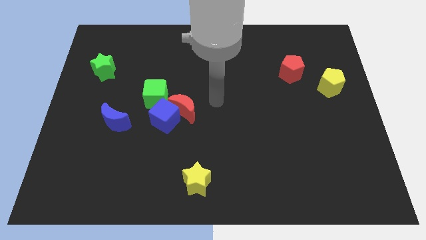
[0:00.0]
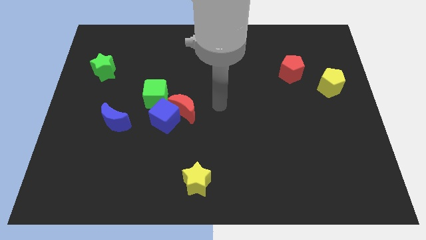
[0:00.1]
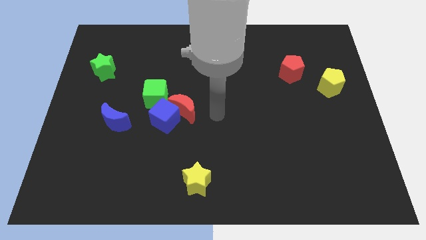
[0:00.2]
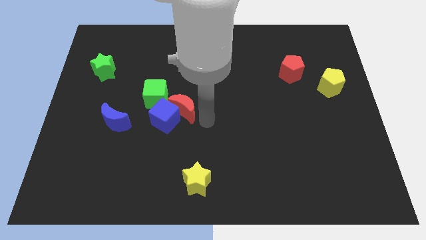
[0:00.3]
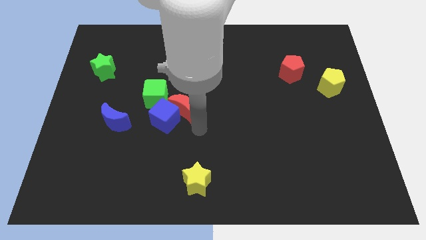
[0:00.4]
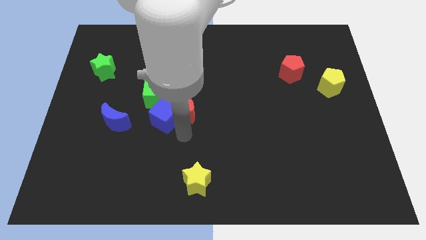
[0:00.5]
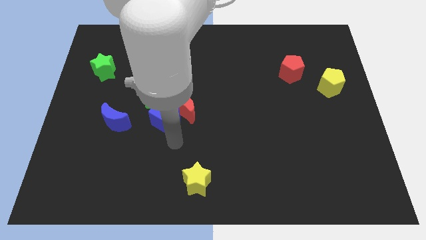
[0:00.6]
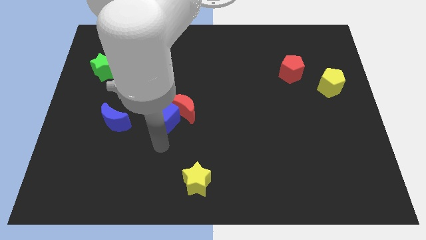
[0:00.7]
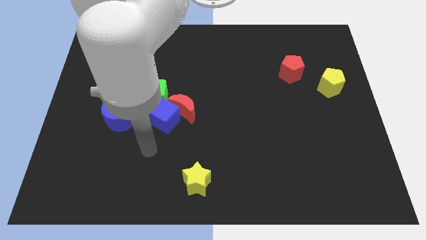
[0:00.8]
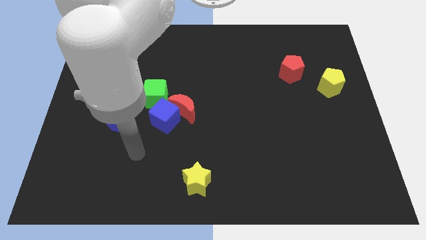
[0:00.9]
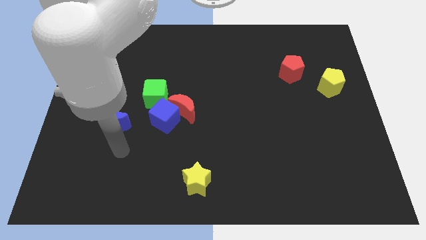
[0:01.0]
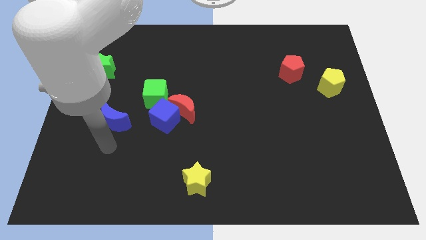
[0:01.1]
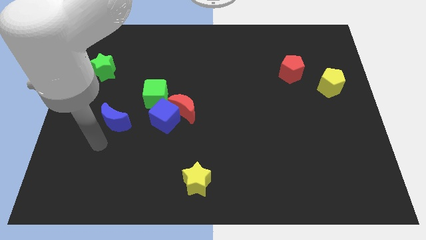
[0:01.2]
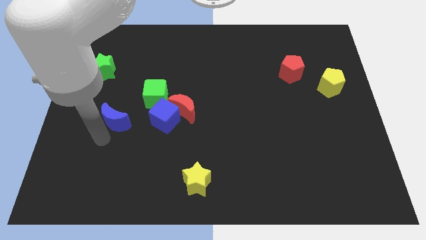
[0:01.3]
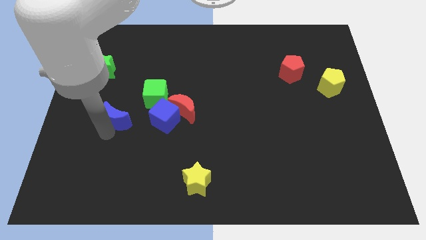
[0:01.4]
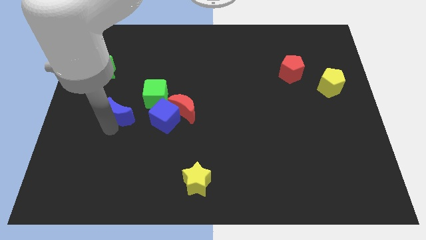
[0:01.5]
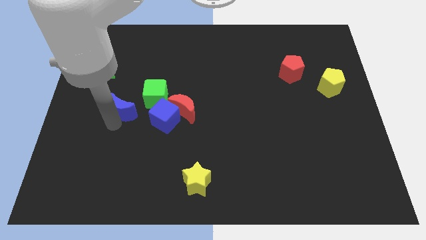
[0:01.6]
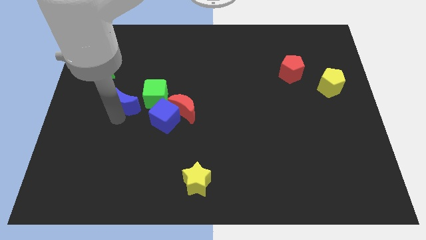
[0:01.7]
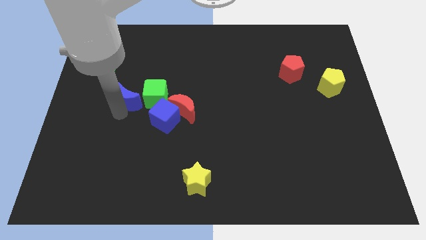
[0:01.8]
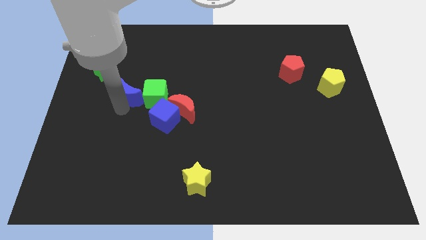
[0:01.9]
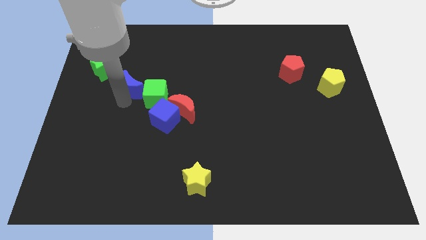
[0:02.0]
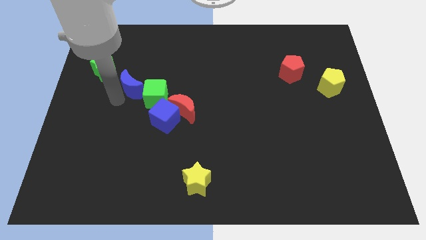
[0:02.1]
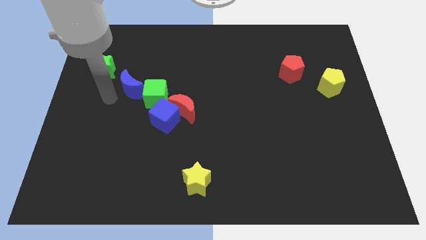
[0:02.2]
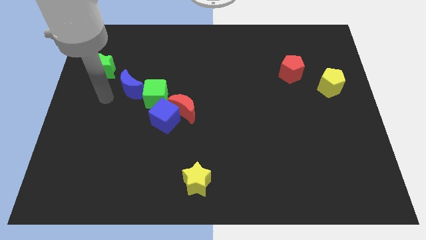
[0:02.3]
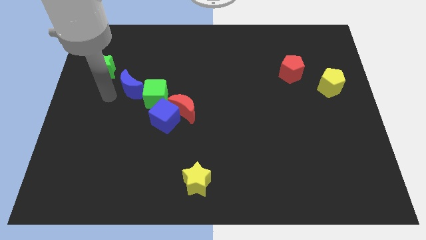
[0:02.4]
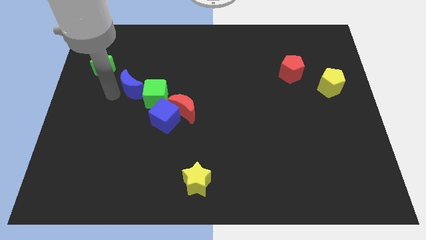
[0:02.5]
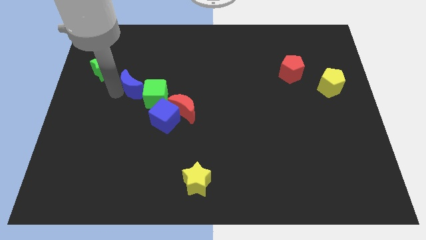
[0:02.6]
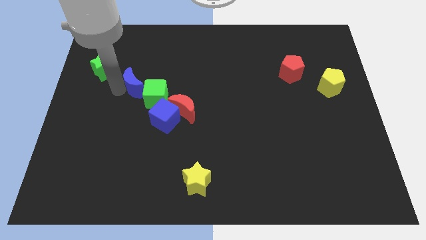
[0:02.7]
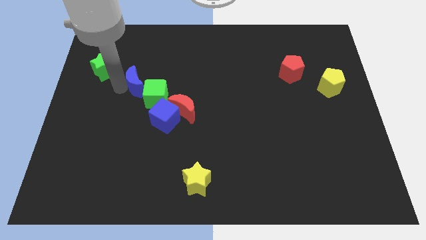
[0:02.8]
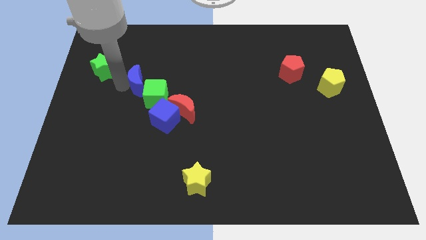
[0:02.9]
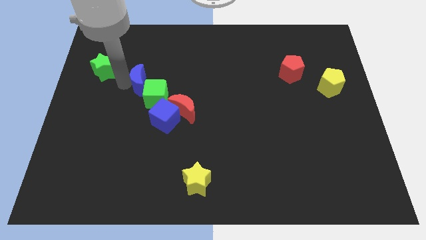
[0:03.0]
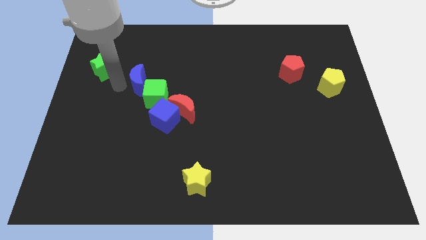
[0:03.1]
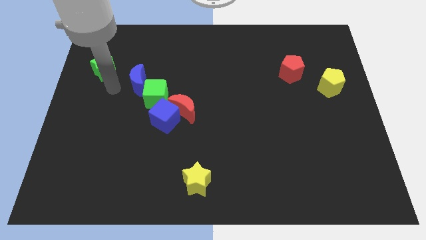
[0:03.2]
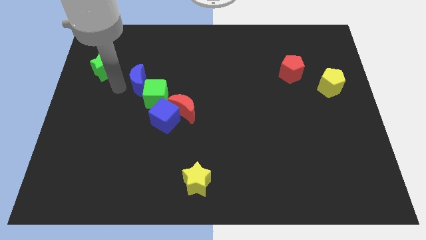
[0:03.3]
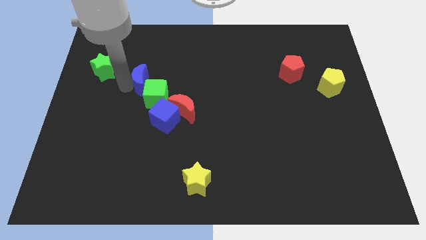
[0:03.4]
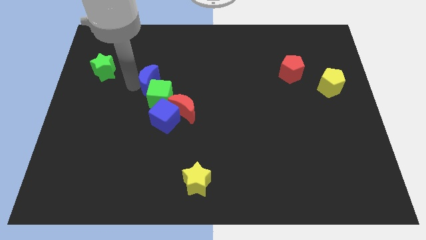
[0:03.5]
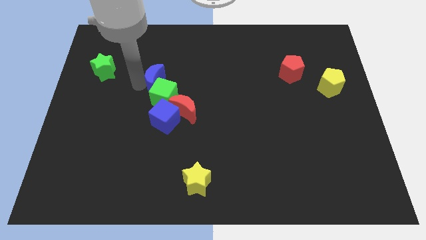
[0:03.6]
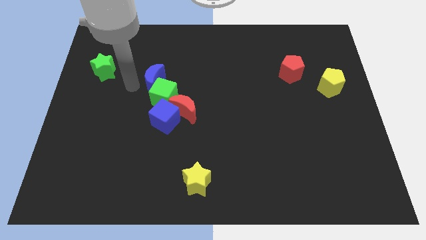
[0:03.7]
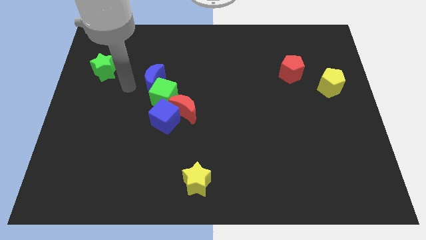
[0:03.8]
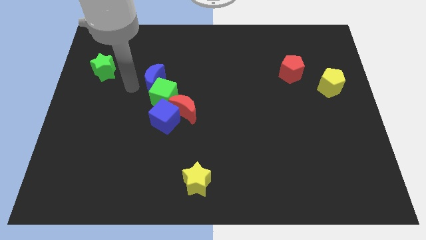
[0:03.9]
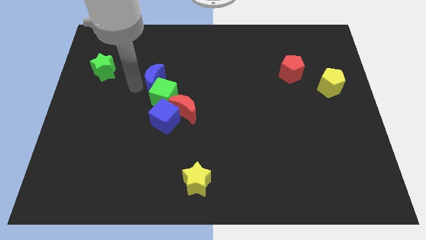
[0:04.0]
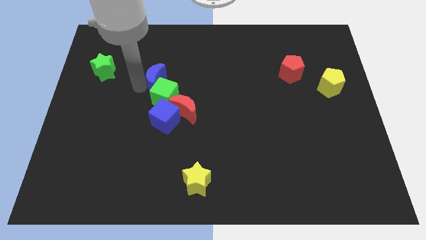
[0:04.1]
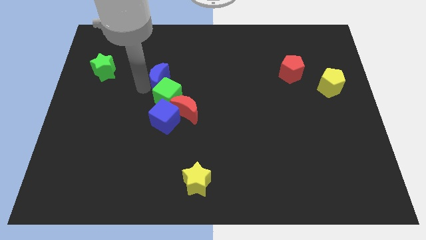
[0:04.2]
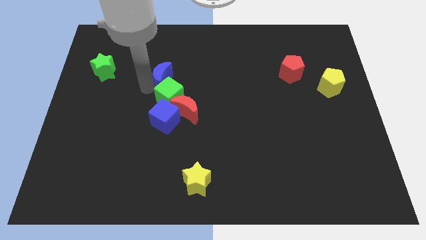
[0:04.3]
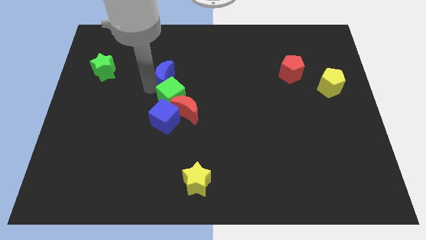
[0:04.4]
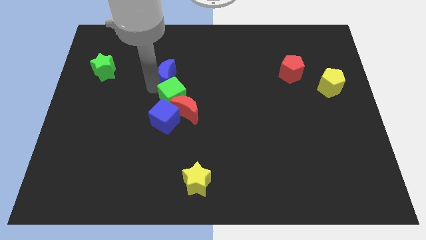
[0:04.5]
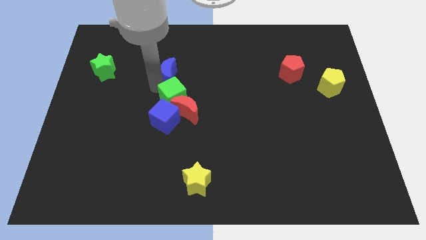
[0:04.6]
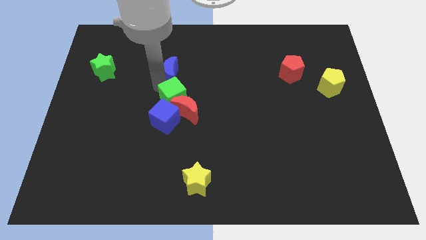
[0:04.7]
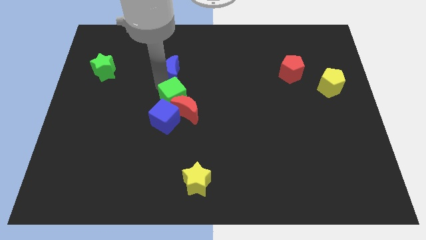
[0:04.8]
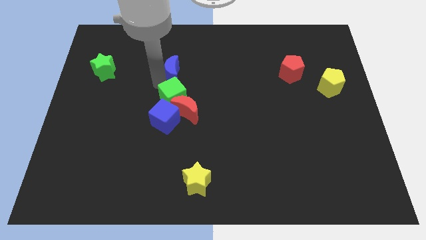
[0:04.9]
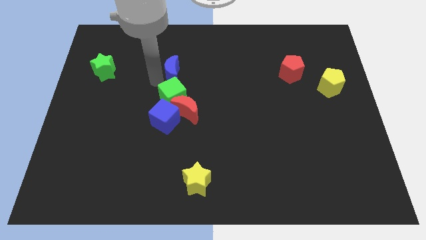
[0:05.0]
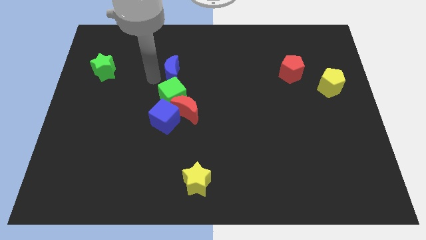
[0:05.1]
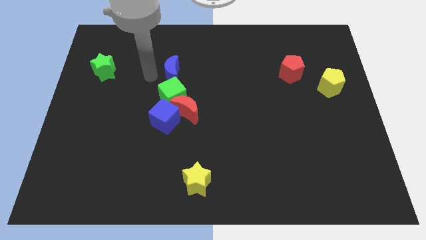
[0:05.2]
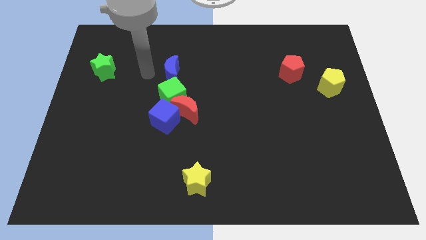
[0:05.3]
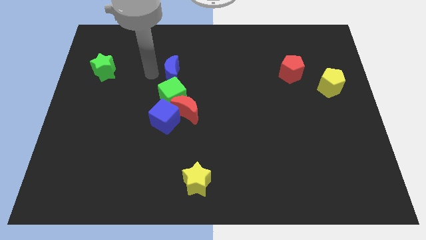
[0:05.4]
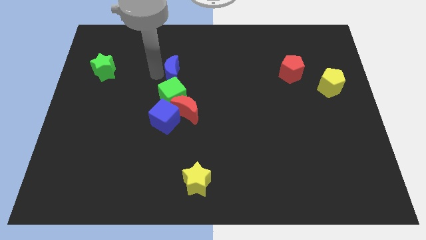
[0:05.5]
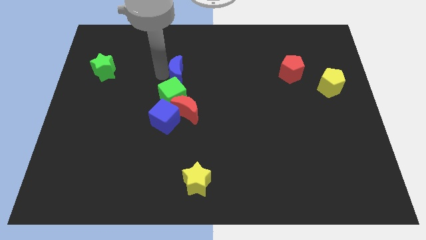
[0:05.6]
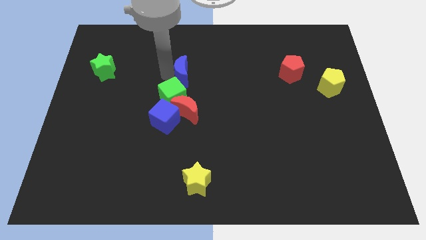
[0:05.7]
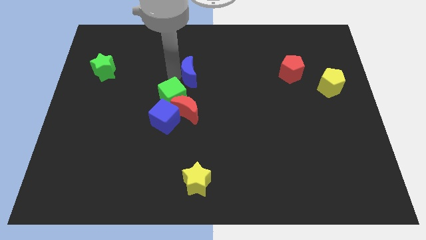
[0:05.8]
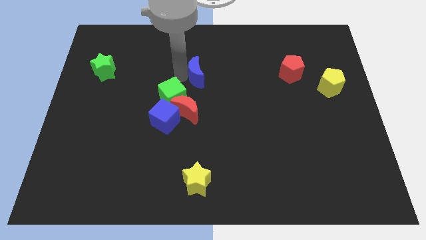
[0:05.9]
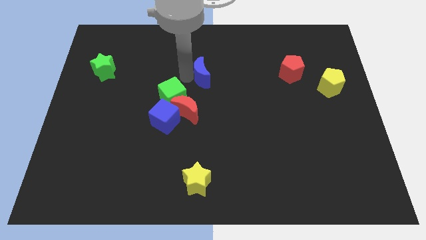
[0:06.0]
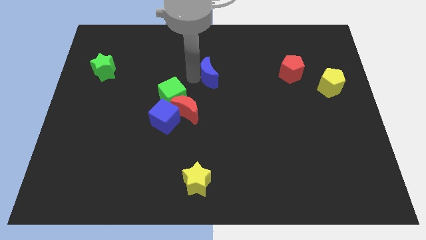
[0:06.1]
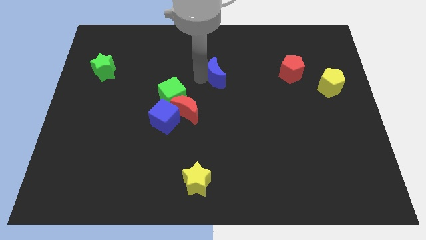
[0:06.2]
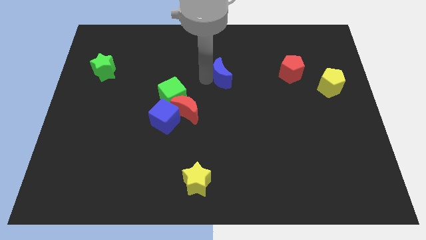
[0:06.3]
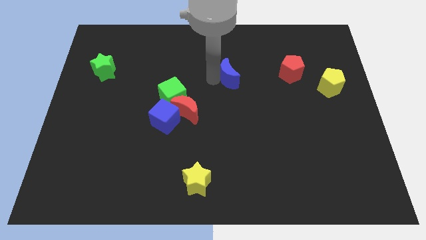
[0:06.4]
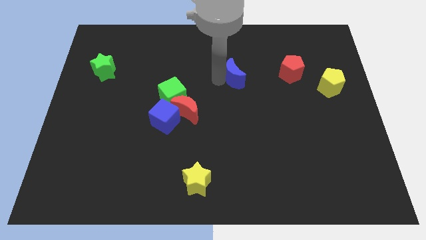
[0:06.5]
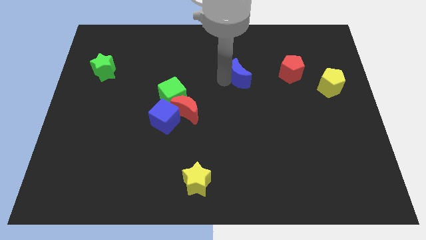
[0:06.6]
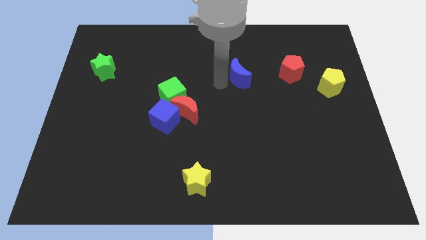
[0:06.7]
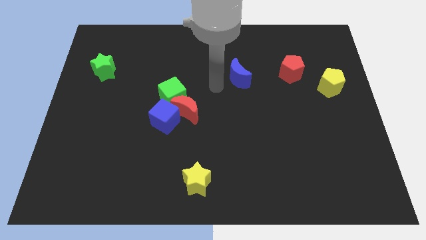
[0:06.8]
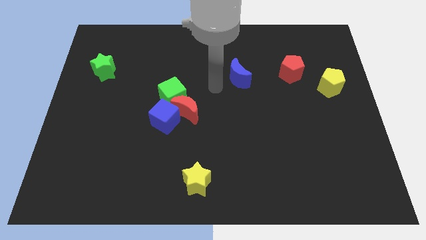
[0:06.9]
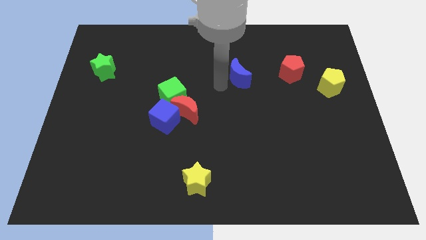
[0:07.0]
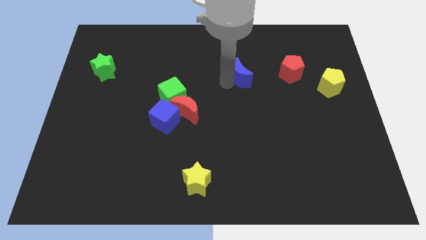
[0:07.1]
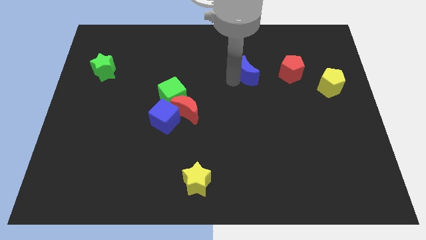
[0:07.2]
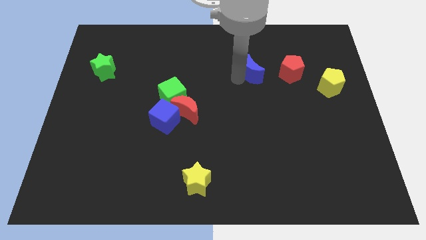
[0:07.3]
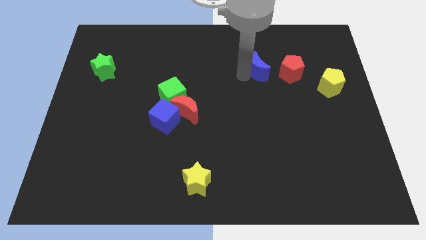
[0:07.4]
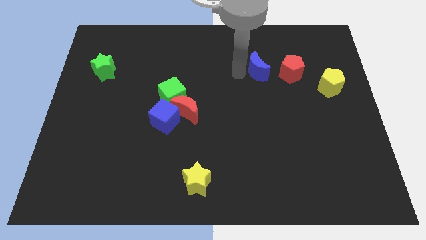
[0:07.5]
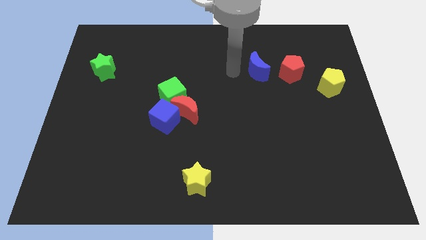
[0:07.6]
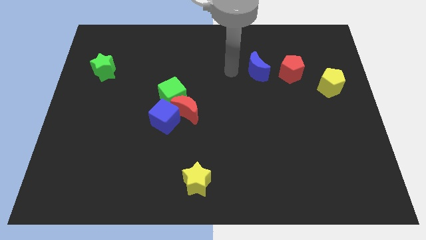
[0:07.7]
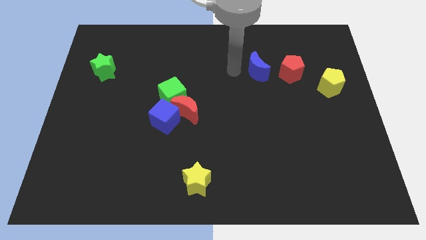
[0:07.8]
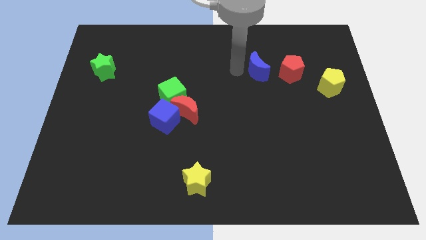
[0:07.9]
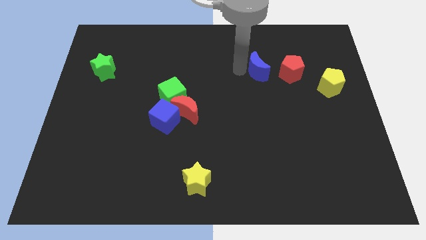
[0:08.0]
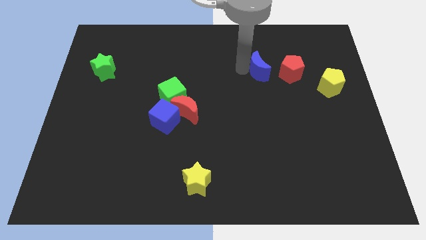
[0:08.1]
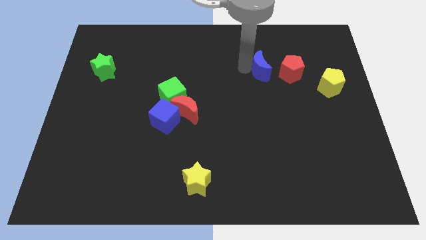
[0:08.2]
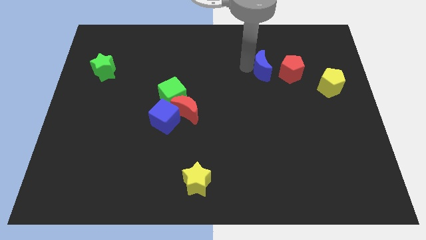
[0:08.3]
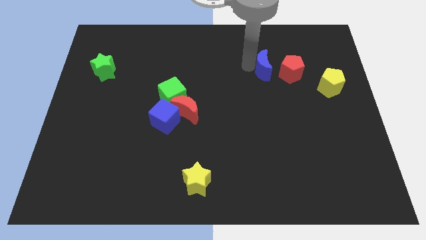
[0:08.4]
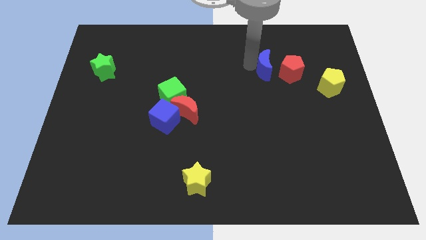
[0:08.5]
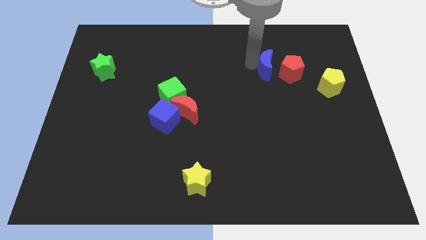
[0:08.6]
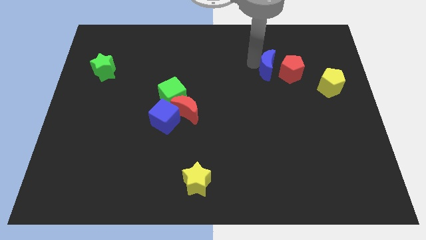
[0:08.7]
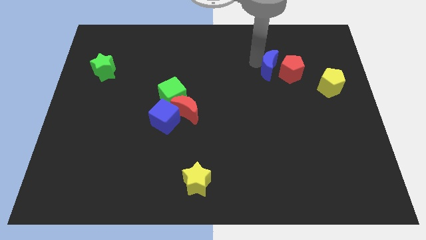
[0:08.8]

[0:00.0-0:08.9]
slide the blue moon next to the red pentagon
